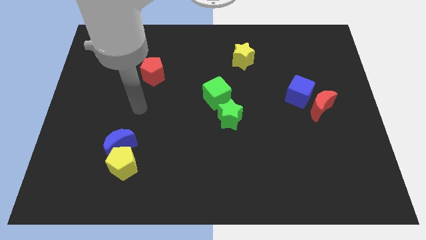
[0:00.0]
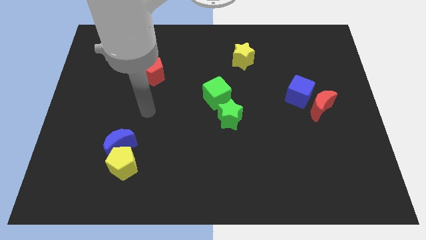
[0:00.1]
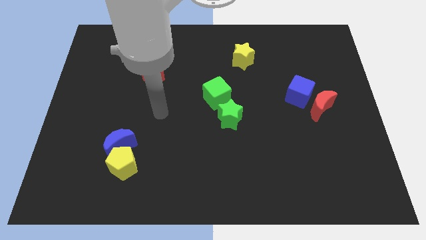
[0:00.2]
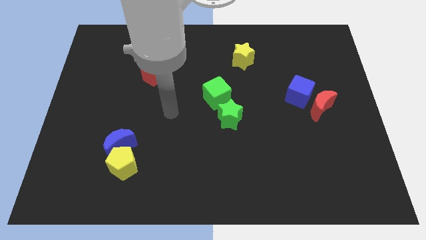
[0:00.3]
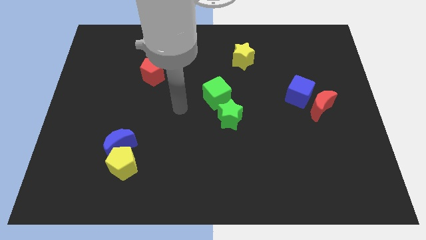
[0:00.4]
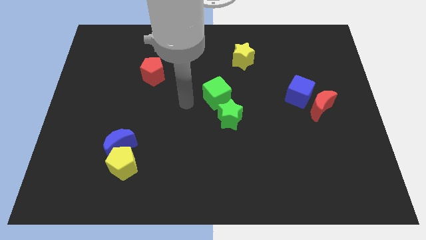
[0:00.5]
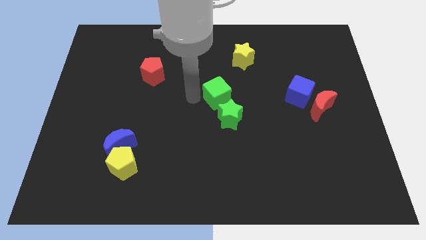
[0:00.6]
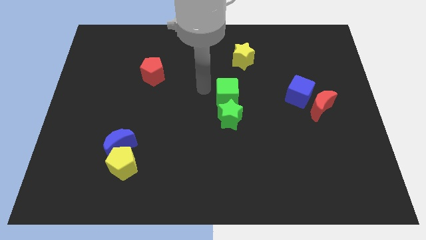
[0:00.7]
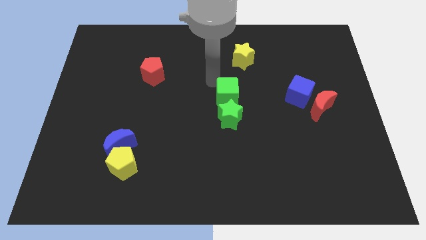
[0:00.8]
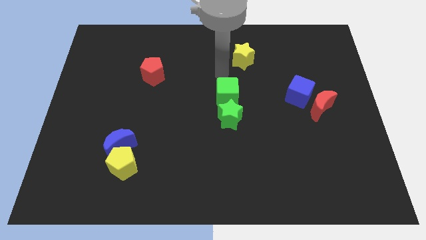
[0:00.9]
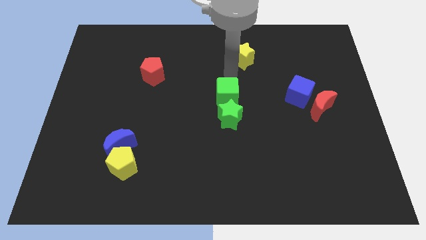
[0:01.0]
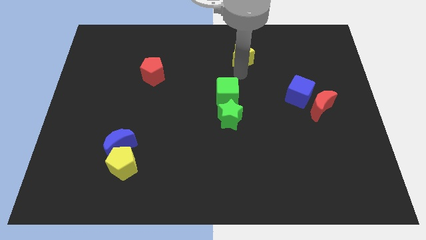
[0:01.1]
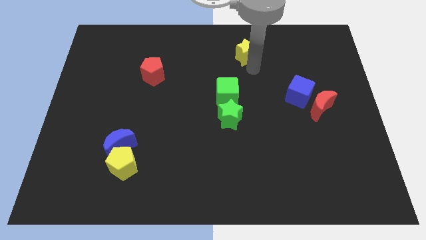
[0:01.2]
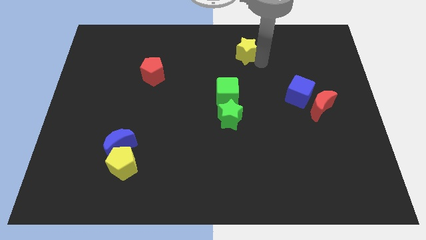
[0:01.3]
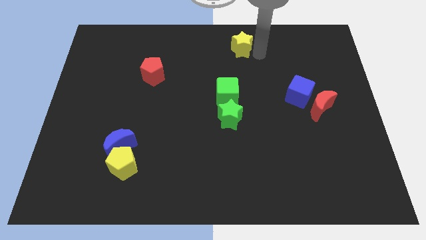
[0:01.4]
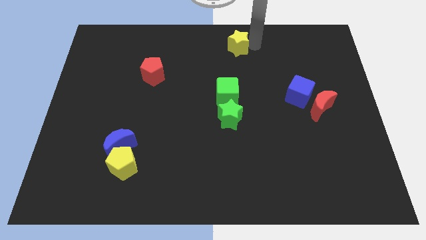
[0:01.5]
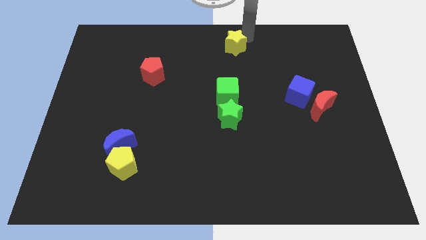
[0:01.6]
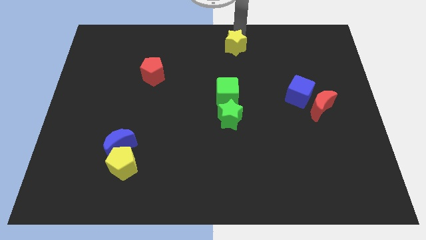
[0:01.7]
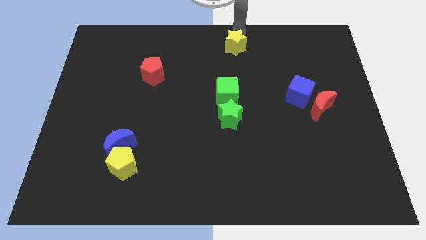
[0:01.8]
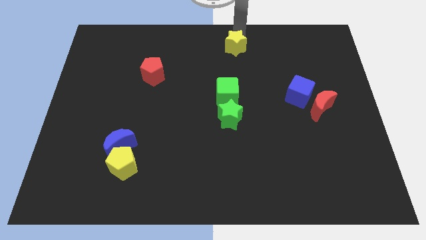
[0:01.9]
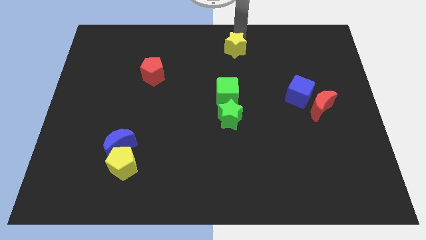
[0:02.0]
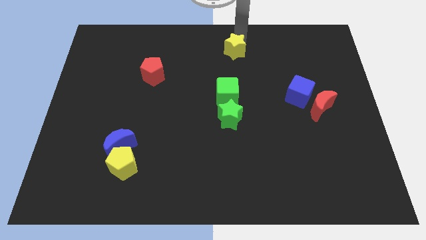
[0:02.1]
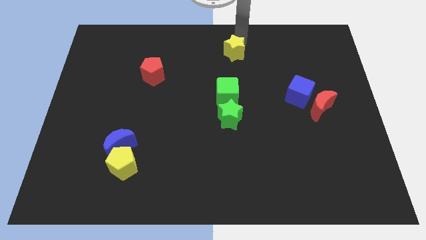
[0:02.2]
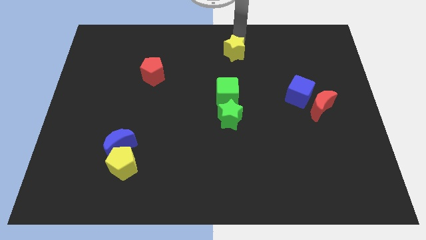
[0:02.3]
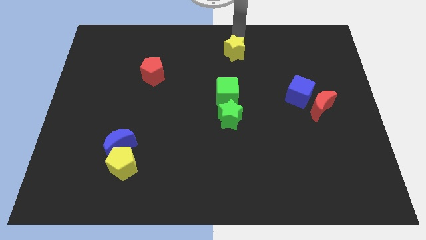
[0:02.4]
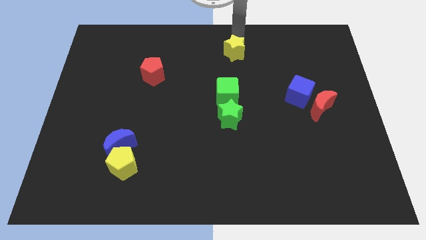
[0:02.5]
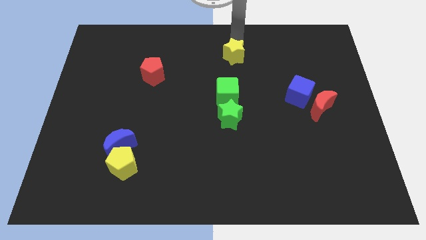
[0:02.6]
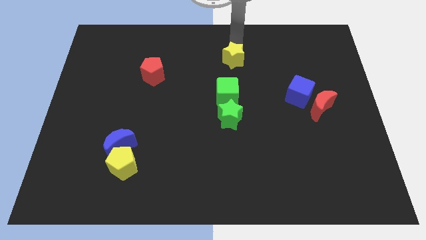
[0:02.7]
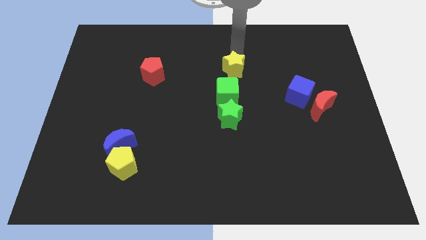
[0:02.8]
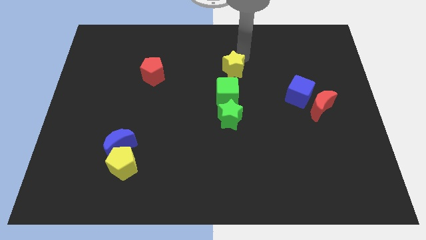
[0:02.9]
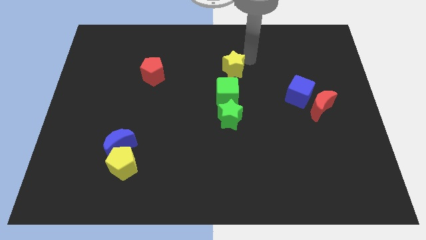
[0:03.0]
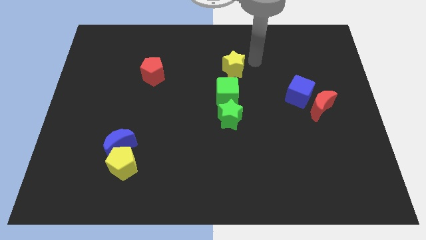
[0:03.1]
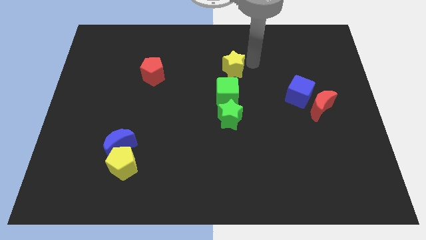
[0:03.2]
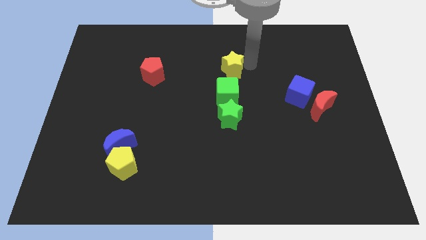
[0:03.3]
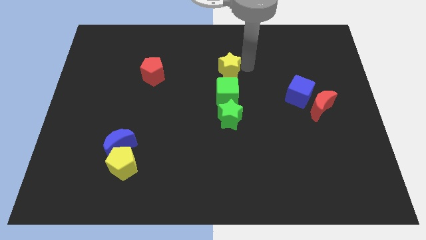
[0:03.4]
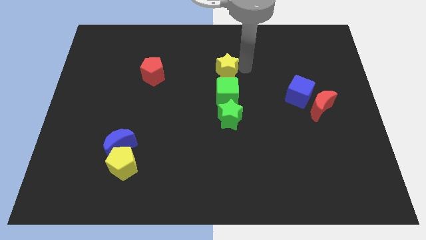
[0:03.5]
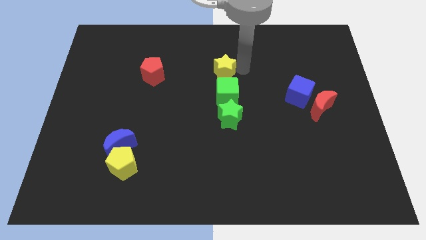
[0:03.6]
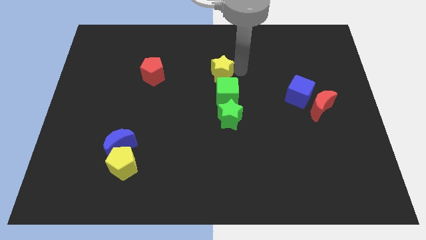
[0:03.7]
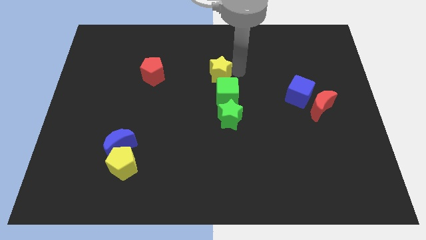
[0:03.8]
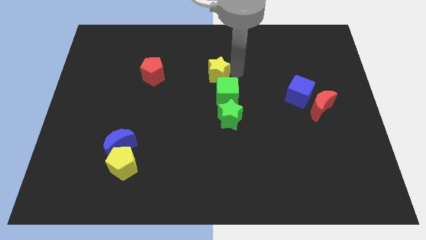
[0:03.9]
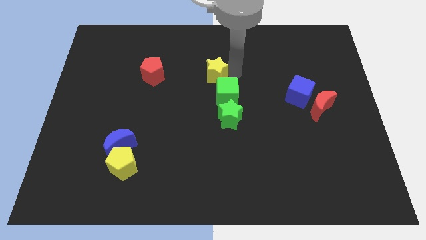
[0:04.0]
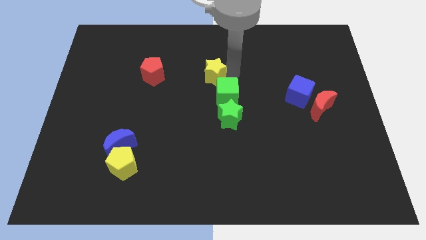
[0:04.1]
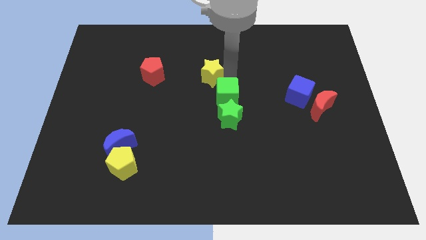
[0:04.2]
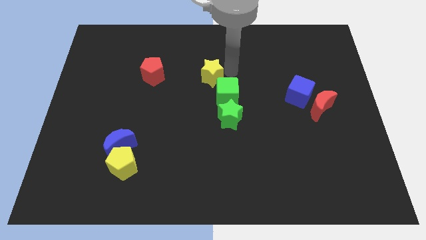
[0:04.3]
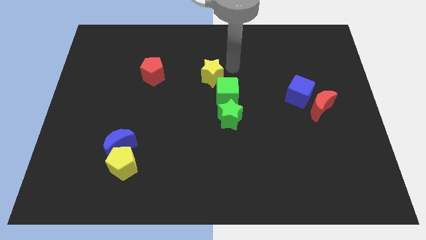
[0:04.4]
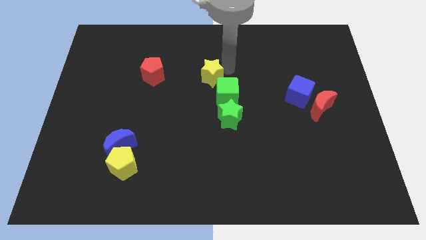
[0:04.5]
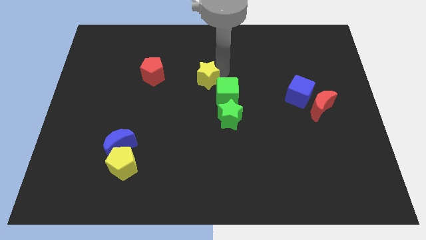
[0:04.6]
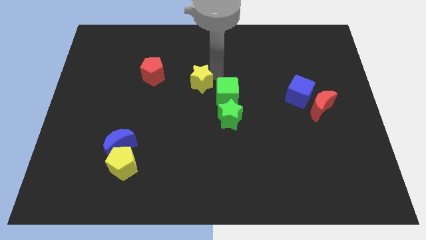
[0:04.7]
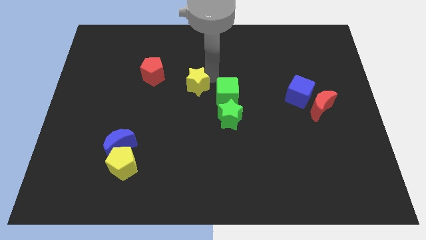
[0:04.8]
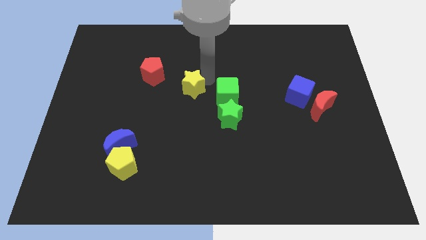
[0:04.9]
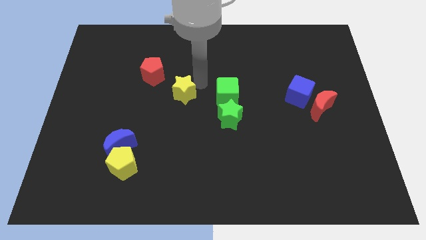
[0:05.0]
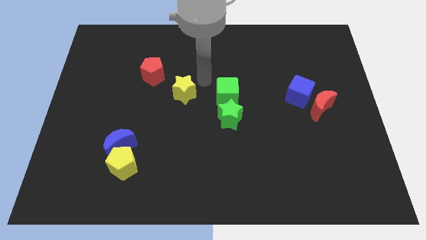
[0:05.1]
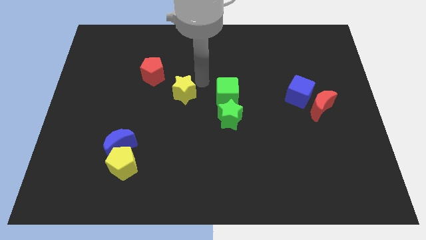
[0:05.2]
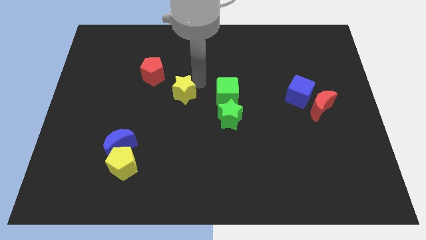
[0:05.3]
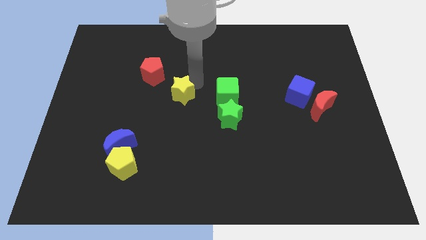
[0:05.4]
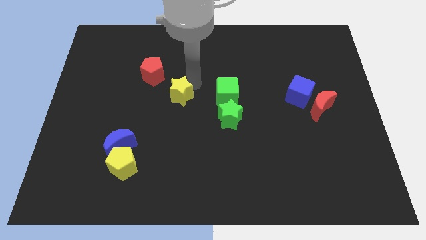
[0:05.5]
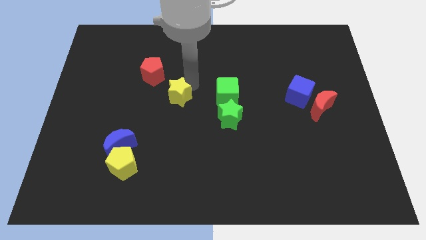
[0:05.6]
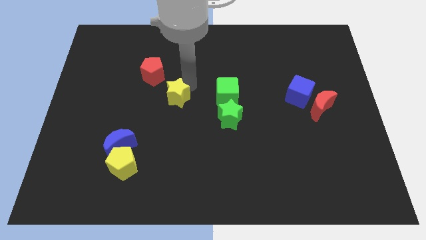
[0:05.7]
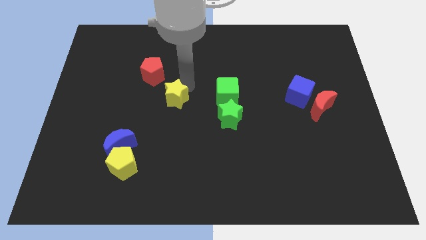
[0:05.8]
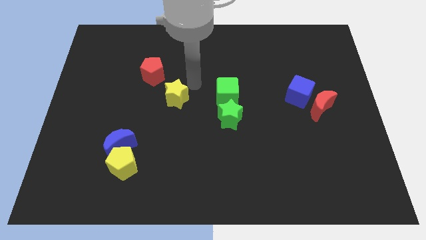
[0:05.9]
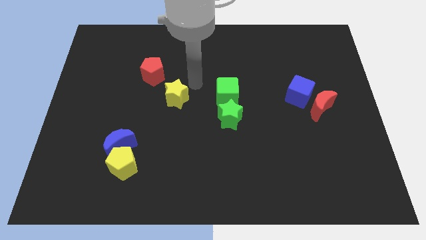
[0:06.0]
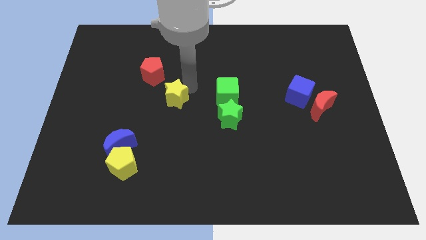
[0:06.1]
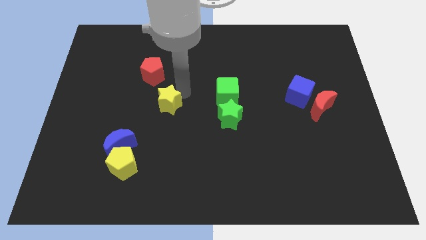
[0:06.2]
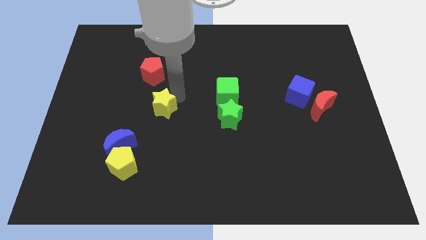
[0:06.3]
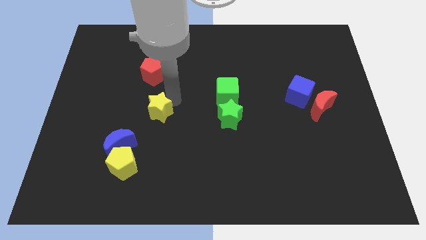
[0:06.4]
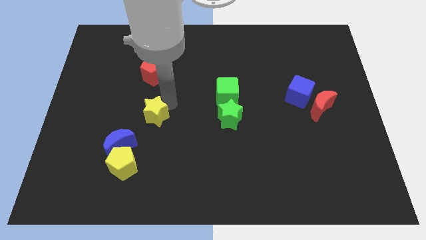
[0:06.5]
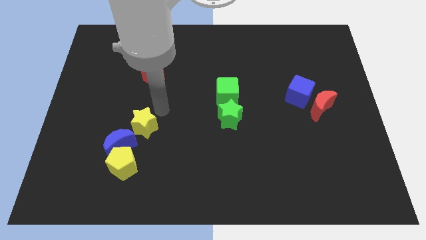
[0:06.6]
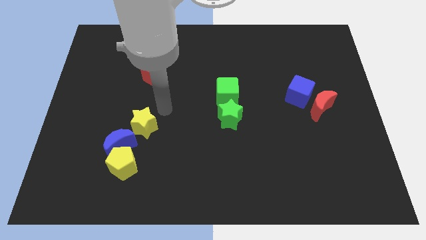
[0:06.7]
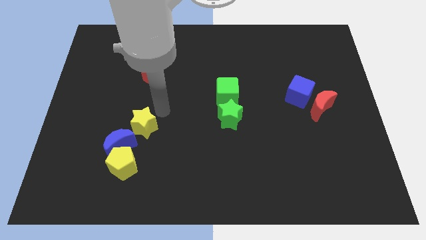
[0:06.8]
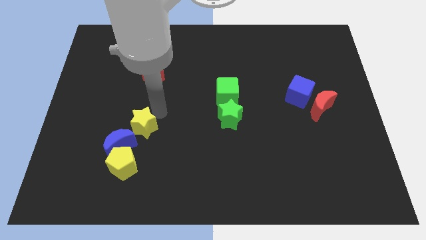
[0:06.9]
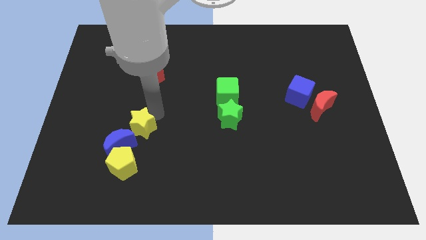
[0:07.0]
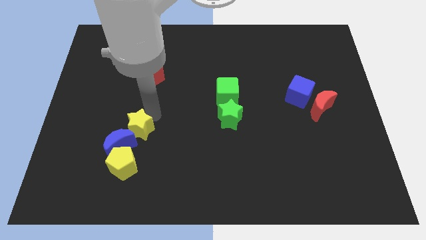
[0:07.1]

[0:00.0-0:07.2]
push the yellow star next to the blue moon
